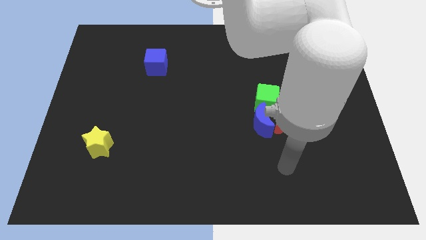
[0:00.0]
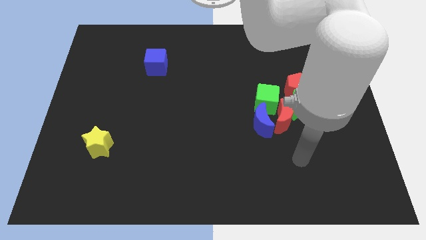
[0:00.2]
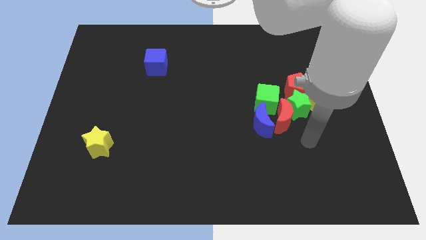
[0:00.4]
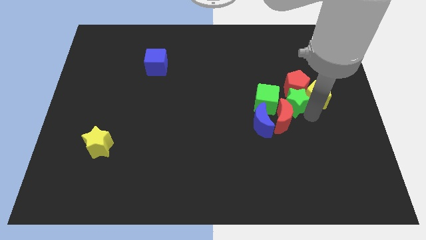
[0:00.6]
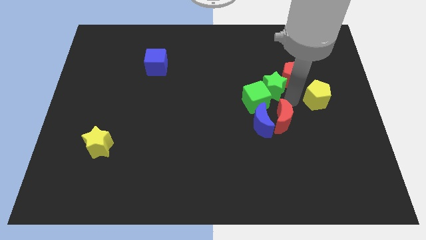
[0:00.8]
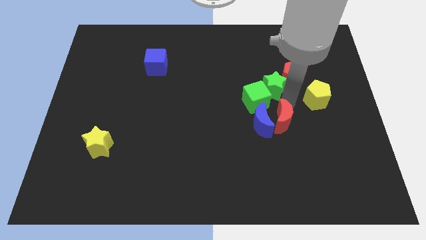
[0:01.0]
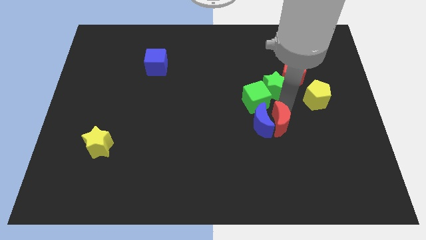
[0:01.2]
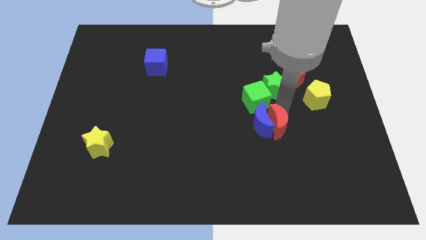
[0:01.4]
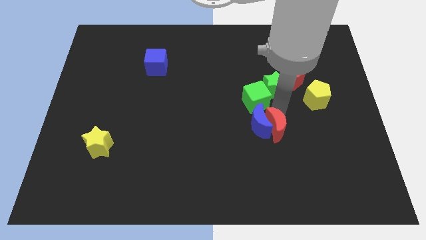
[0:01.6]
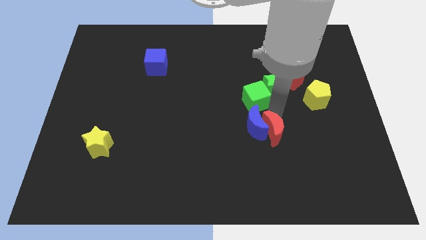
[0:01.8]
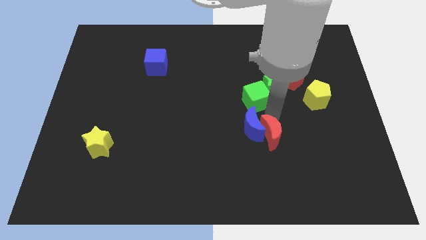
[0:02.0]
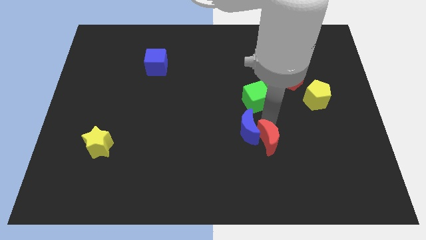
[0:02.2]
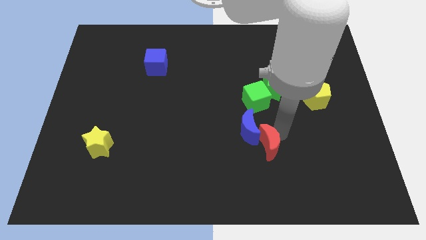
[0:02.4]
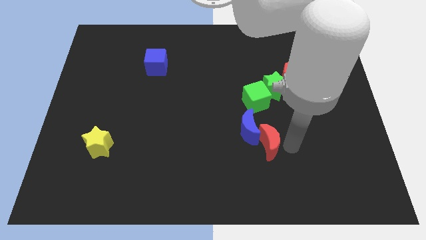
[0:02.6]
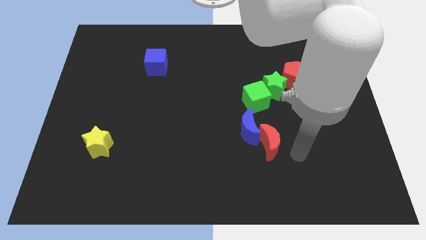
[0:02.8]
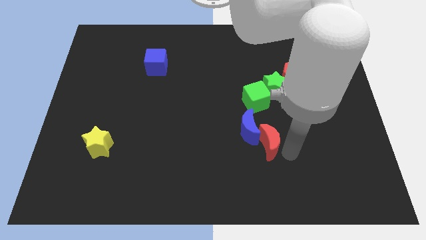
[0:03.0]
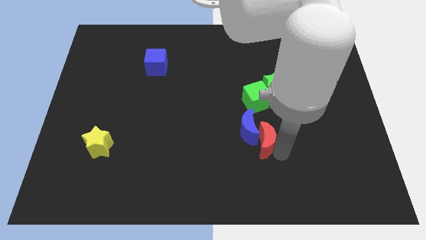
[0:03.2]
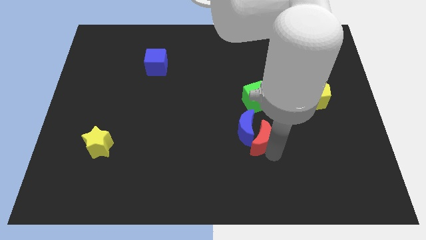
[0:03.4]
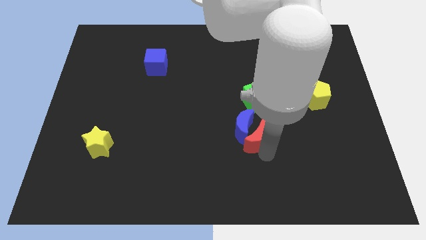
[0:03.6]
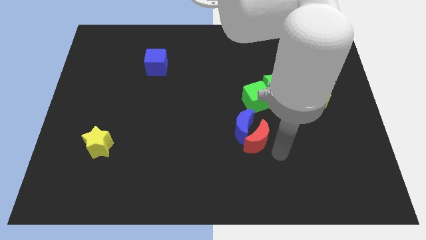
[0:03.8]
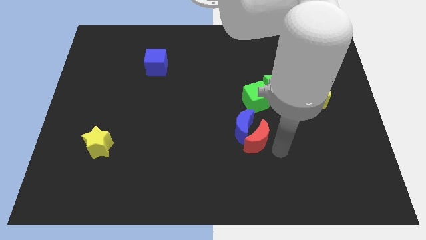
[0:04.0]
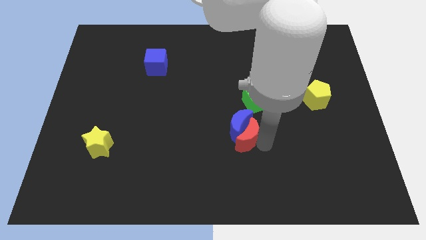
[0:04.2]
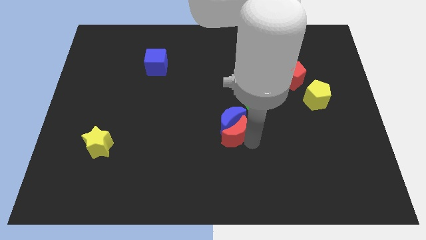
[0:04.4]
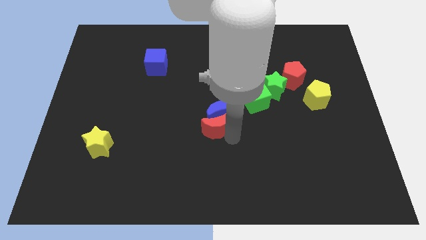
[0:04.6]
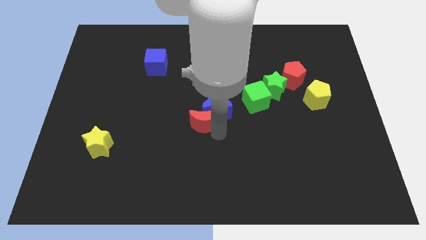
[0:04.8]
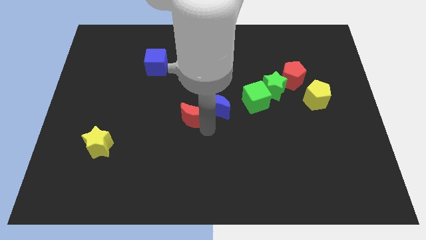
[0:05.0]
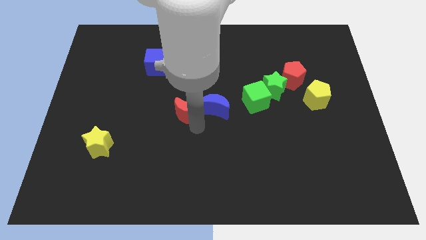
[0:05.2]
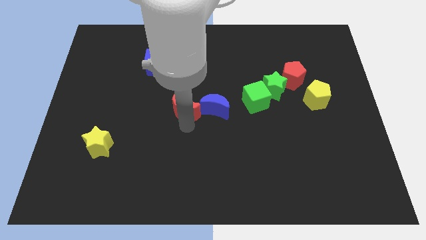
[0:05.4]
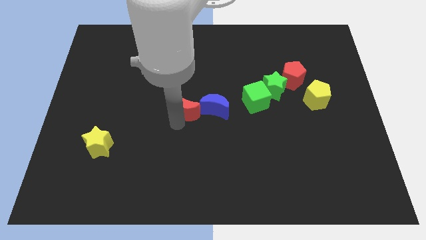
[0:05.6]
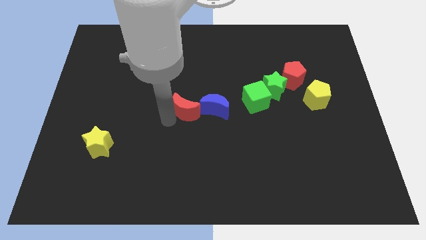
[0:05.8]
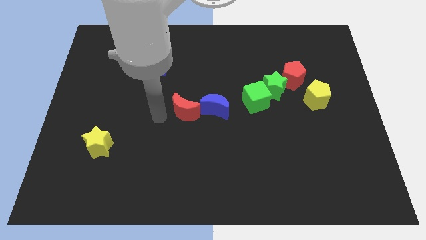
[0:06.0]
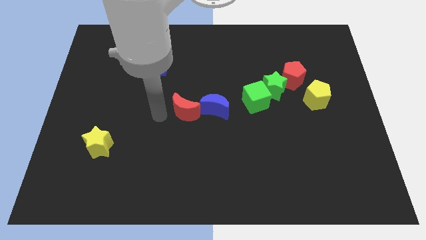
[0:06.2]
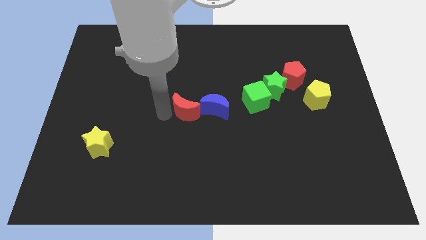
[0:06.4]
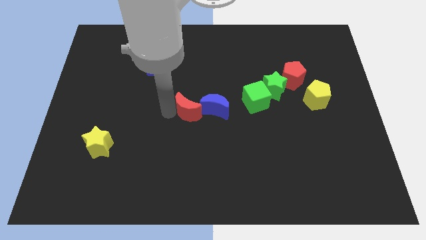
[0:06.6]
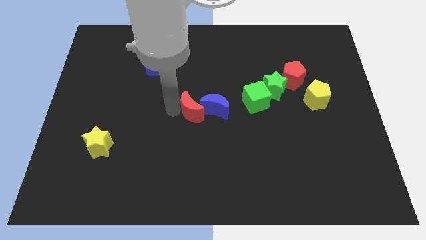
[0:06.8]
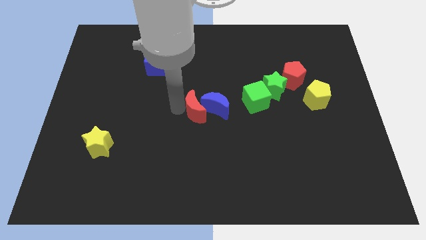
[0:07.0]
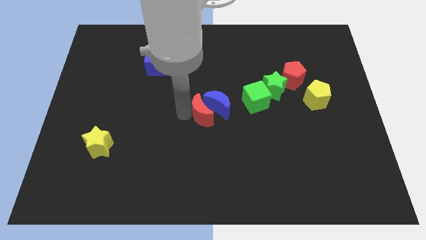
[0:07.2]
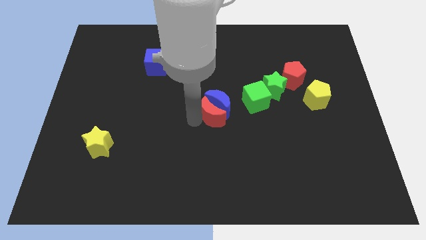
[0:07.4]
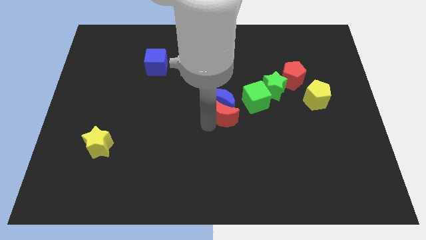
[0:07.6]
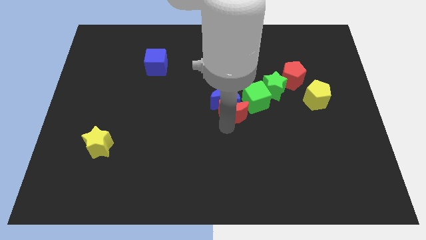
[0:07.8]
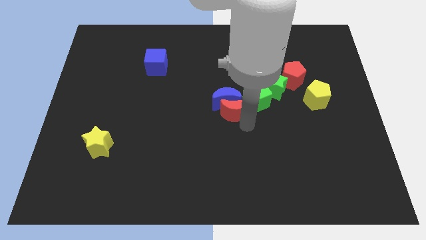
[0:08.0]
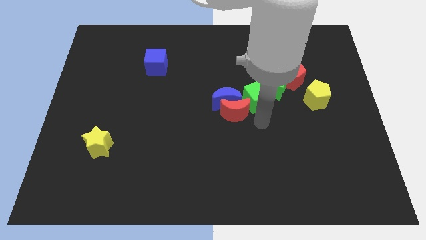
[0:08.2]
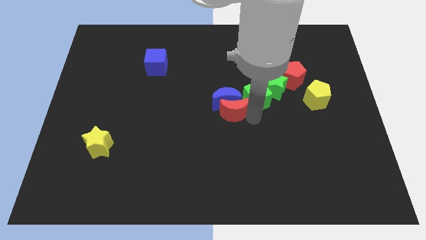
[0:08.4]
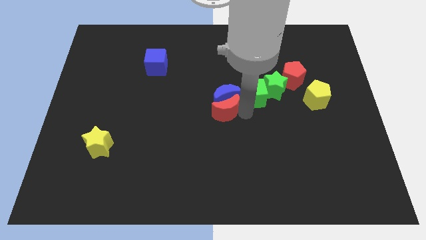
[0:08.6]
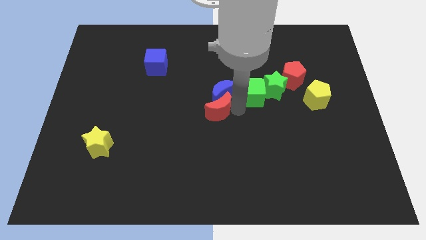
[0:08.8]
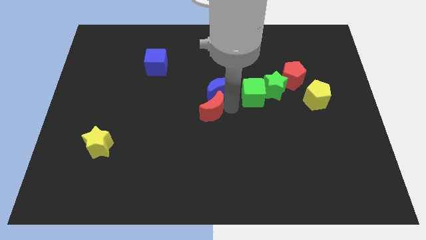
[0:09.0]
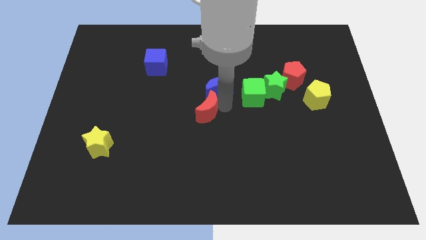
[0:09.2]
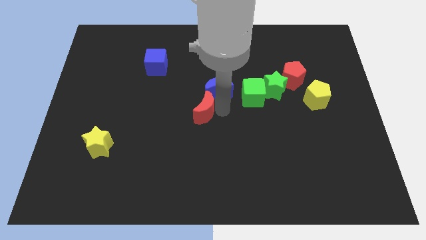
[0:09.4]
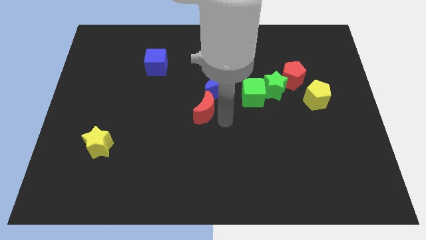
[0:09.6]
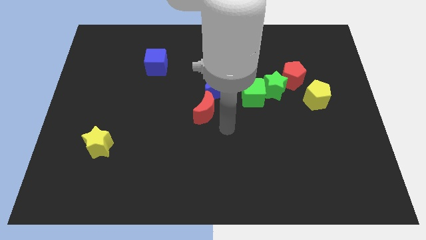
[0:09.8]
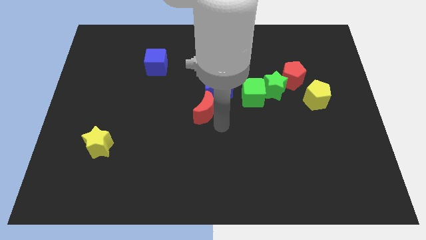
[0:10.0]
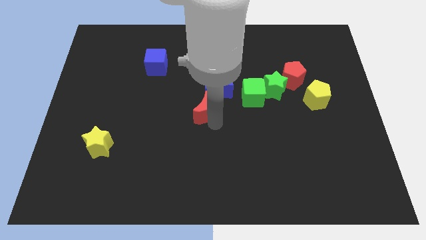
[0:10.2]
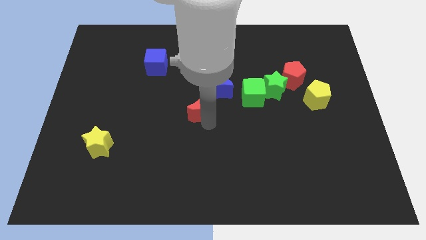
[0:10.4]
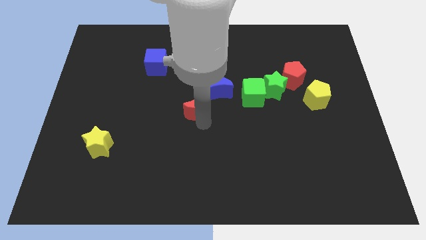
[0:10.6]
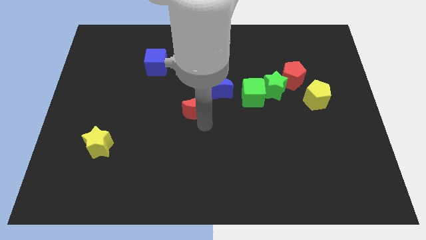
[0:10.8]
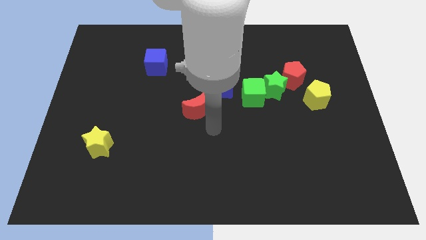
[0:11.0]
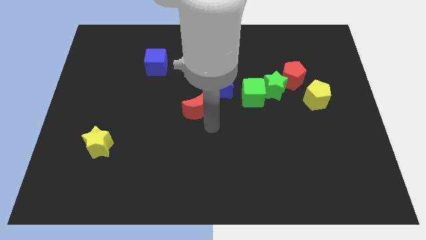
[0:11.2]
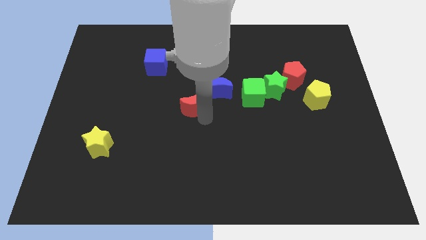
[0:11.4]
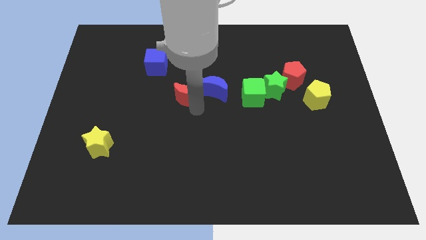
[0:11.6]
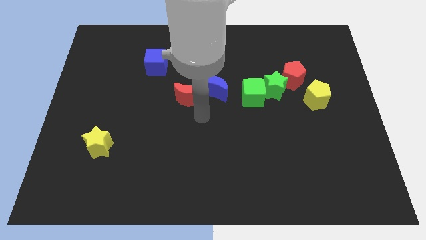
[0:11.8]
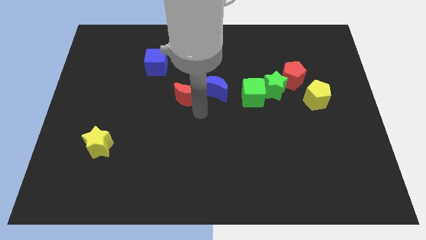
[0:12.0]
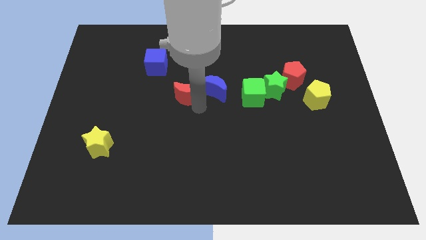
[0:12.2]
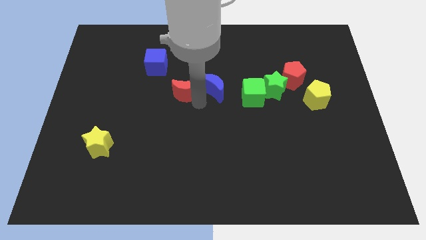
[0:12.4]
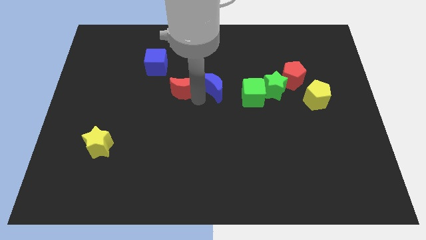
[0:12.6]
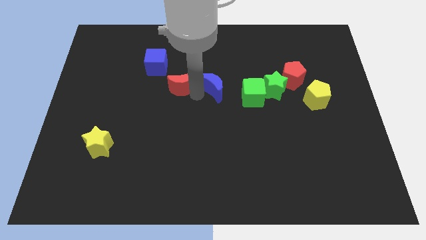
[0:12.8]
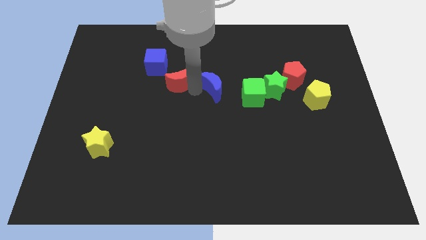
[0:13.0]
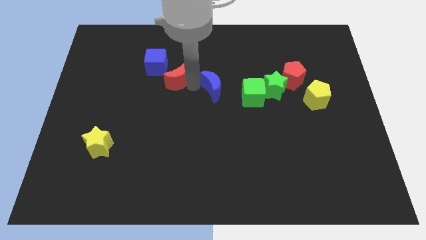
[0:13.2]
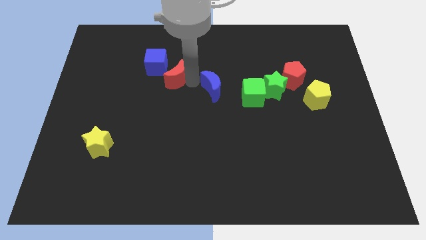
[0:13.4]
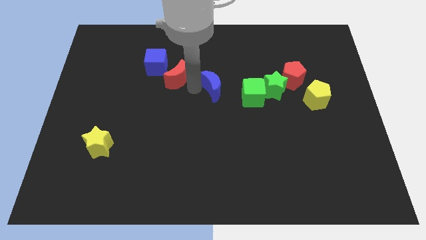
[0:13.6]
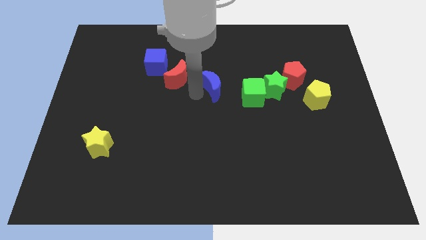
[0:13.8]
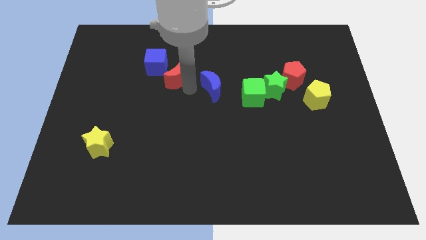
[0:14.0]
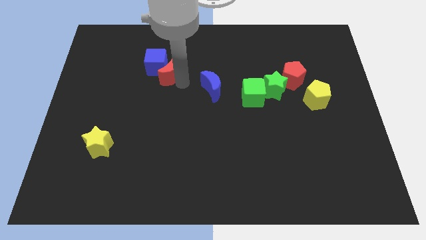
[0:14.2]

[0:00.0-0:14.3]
move the red moon towards the blue cube
